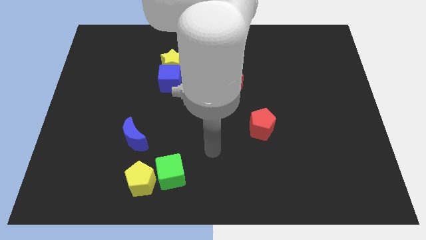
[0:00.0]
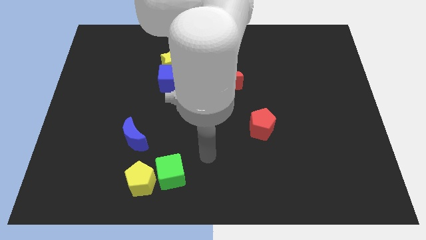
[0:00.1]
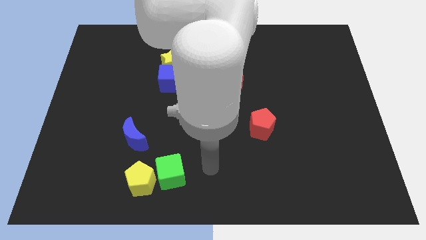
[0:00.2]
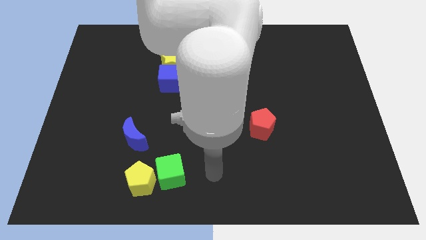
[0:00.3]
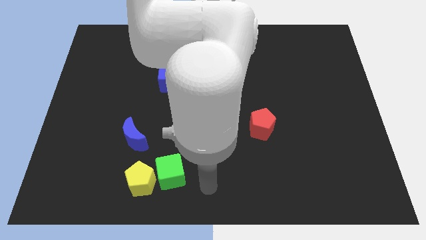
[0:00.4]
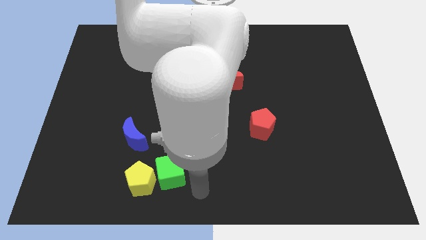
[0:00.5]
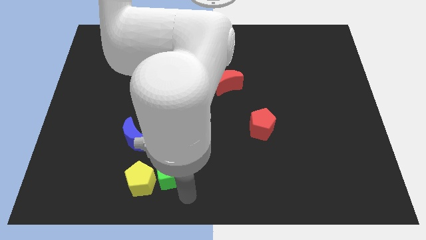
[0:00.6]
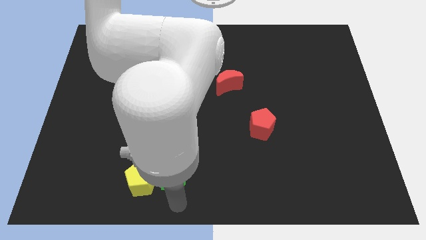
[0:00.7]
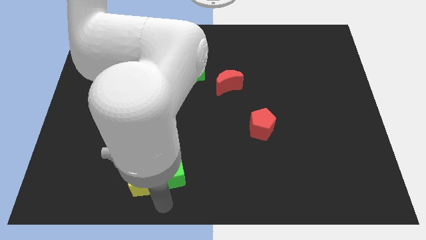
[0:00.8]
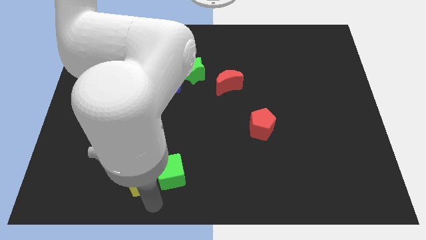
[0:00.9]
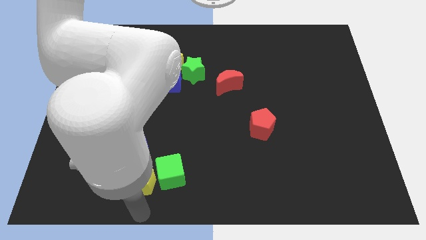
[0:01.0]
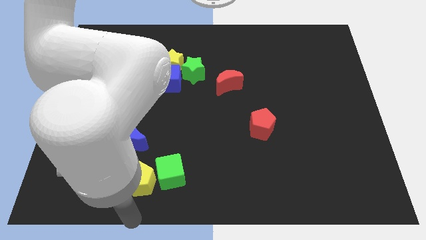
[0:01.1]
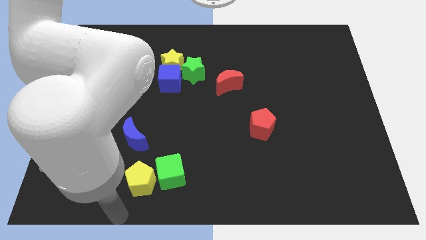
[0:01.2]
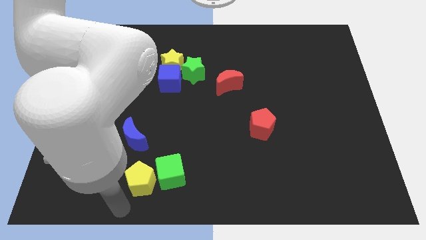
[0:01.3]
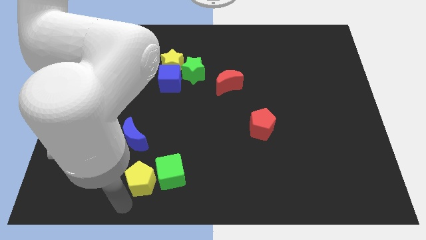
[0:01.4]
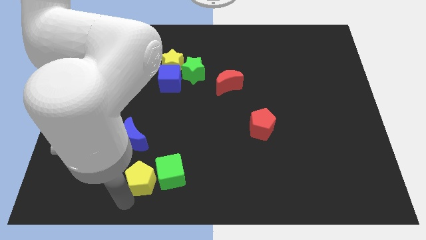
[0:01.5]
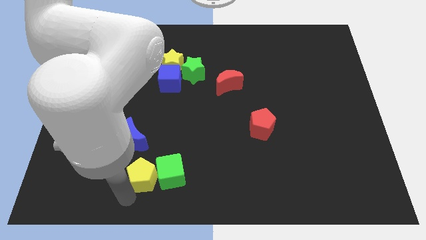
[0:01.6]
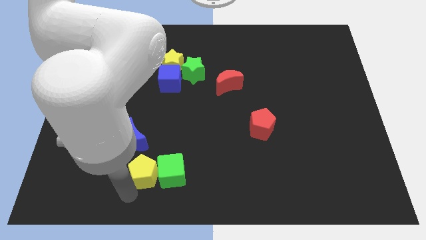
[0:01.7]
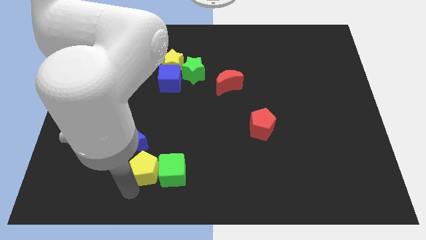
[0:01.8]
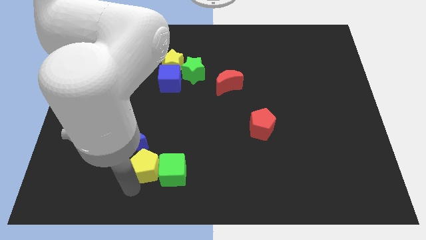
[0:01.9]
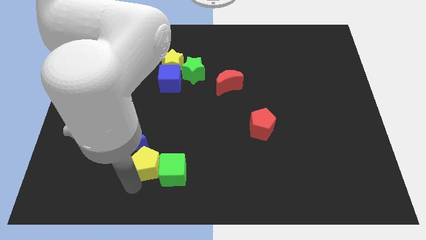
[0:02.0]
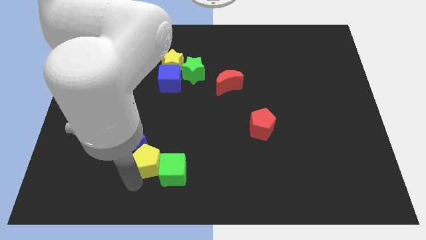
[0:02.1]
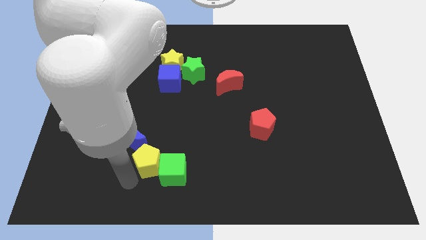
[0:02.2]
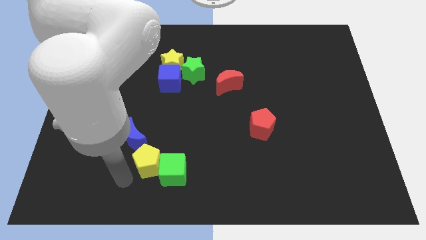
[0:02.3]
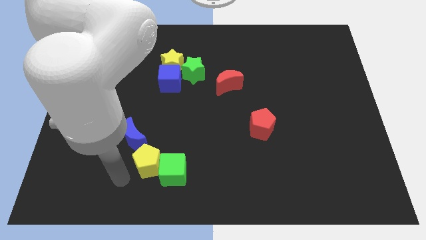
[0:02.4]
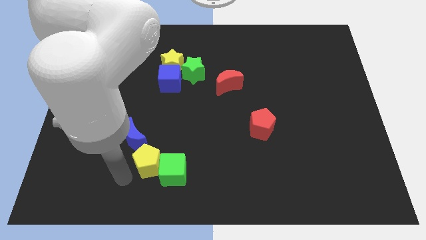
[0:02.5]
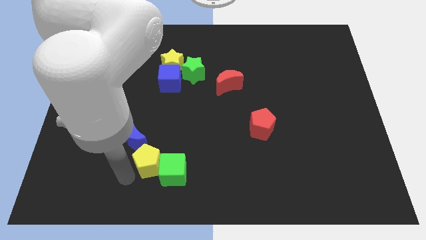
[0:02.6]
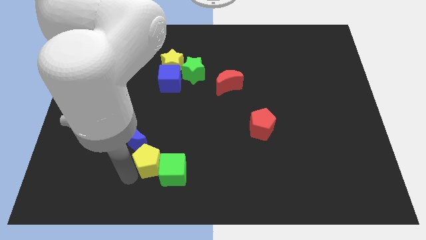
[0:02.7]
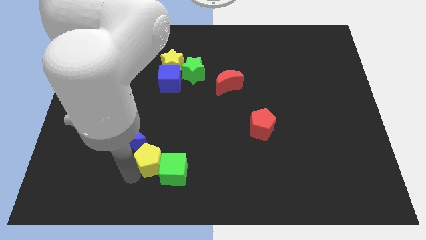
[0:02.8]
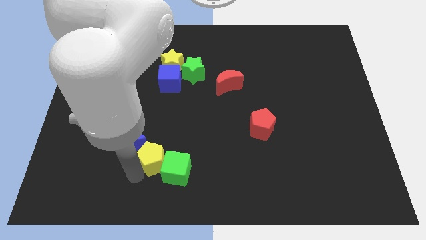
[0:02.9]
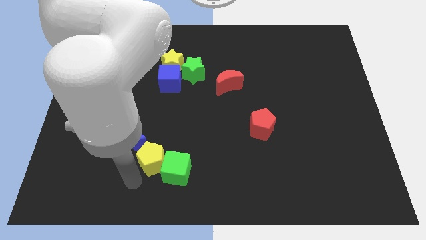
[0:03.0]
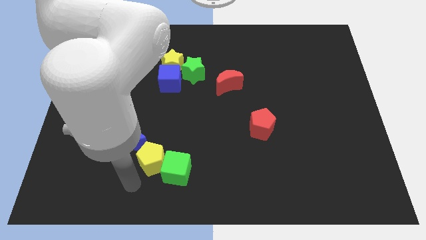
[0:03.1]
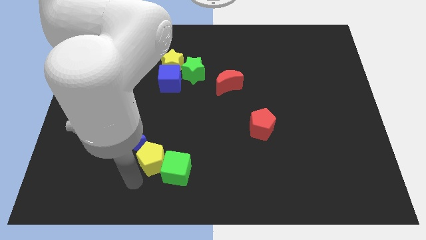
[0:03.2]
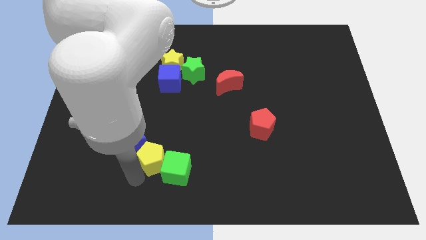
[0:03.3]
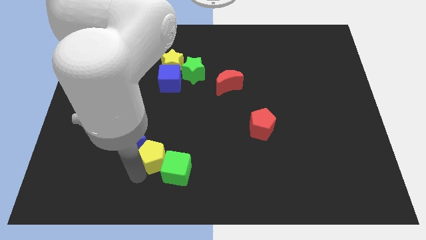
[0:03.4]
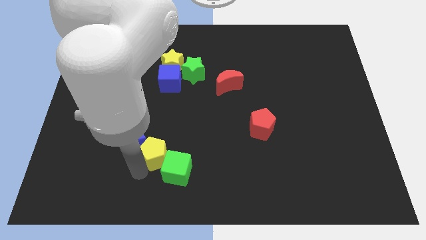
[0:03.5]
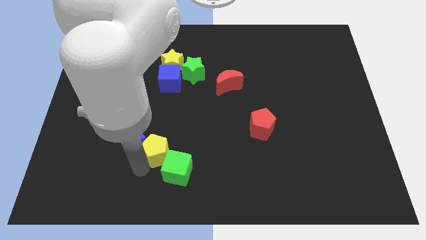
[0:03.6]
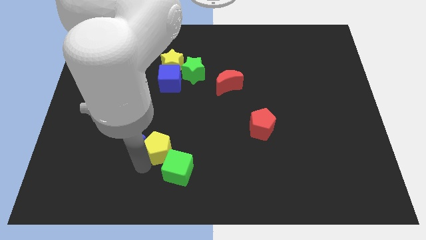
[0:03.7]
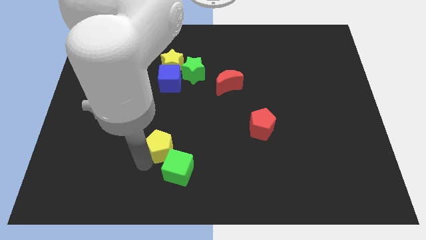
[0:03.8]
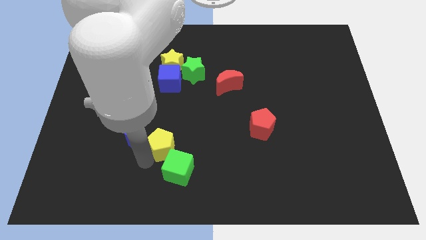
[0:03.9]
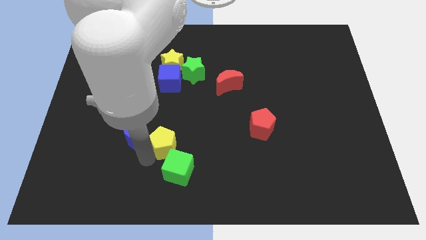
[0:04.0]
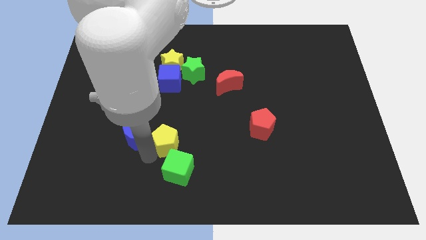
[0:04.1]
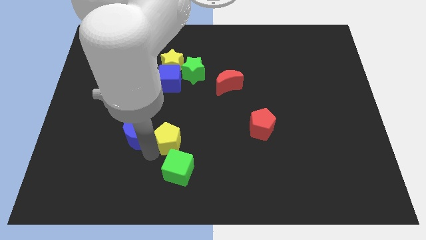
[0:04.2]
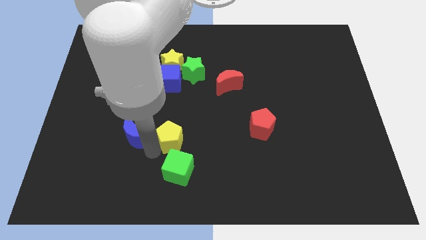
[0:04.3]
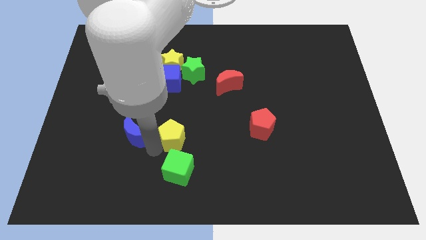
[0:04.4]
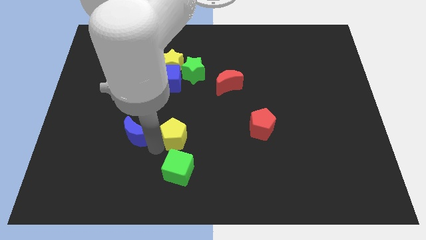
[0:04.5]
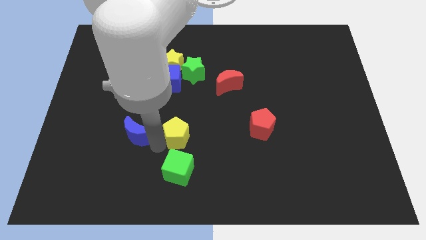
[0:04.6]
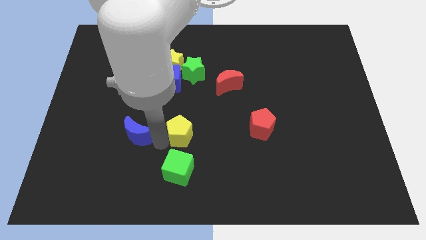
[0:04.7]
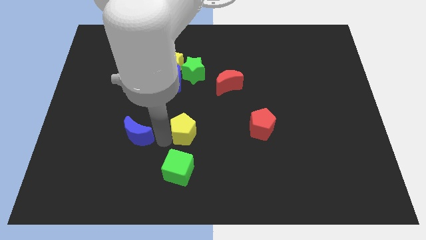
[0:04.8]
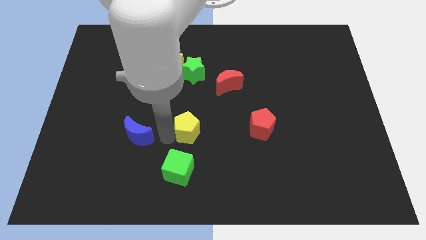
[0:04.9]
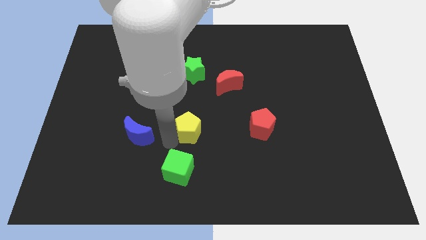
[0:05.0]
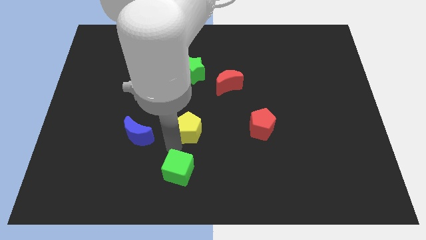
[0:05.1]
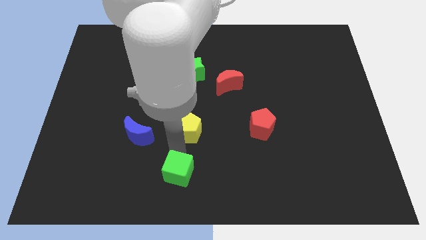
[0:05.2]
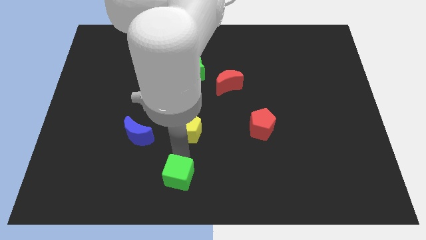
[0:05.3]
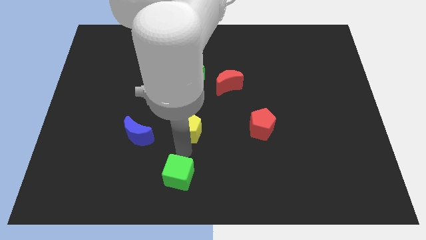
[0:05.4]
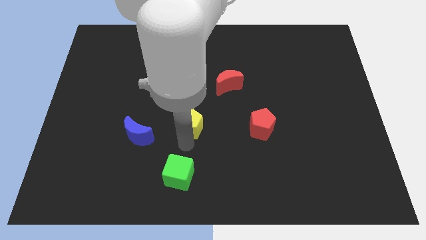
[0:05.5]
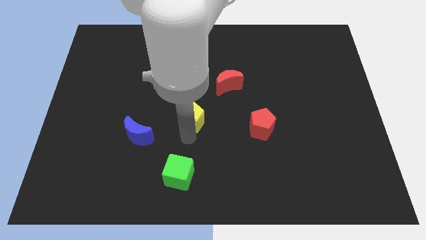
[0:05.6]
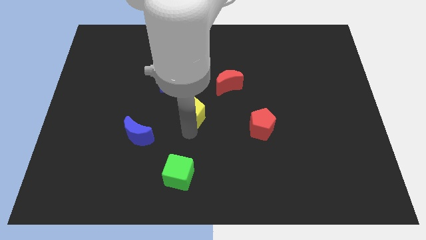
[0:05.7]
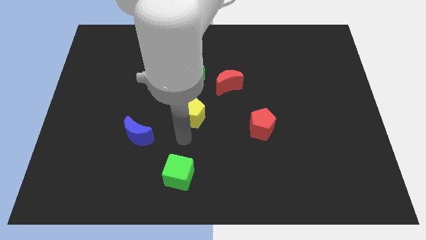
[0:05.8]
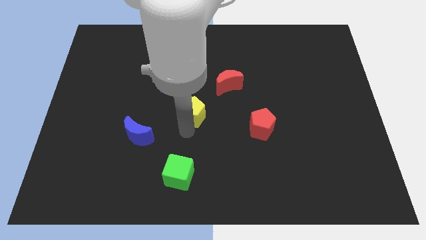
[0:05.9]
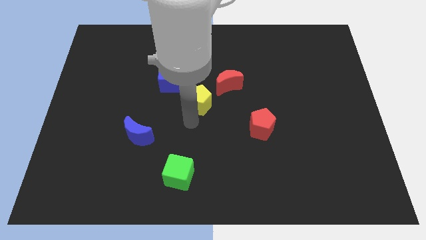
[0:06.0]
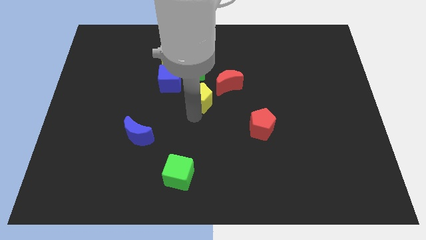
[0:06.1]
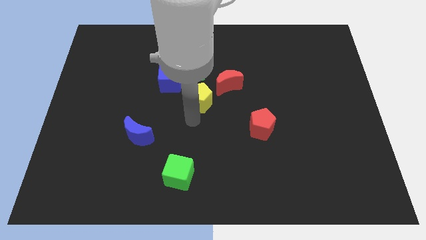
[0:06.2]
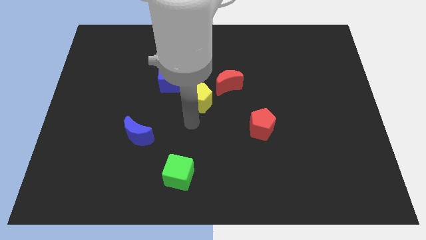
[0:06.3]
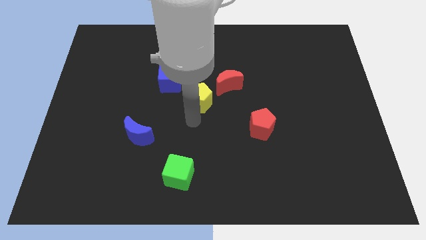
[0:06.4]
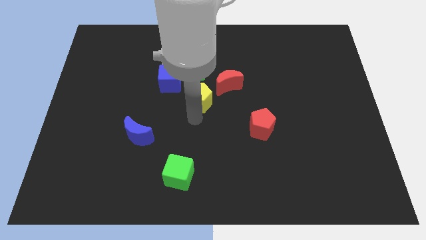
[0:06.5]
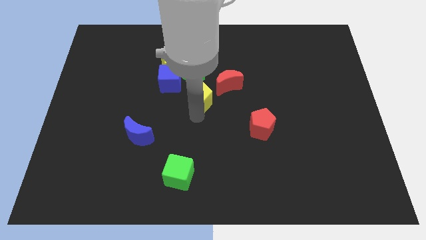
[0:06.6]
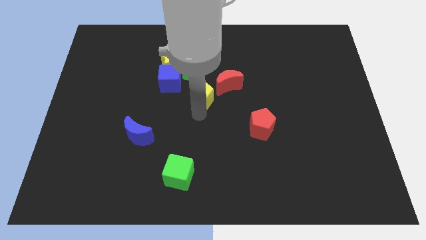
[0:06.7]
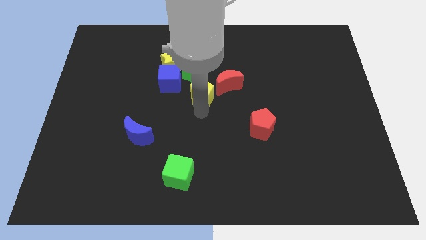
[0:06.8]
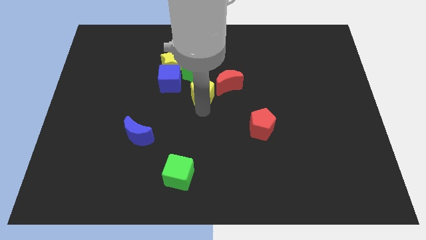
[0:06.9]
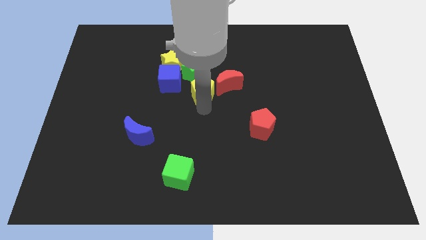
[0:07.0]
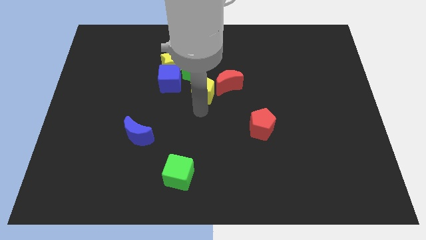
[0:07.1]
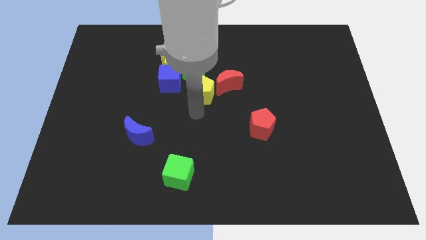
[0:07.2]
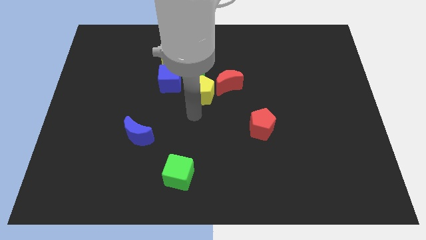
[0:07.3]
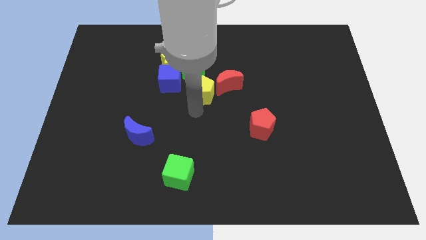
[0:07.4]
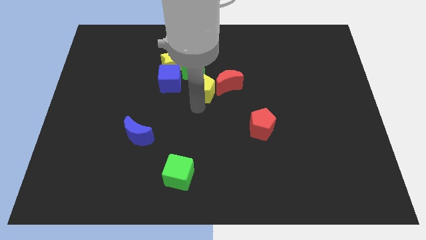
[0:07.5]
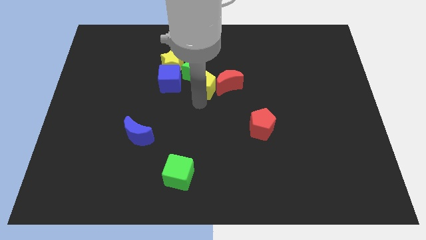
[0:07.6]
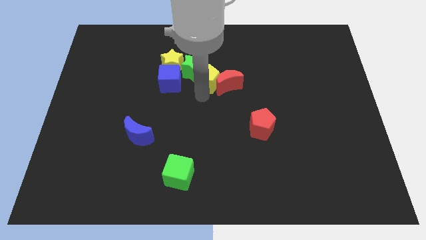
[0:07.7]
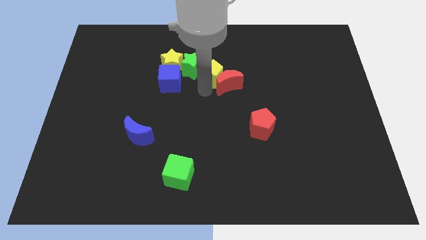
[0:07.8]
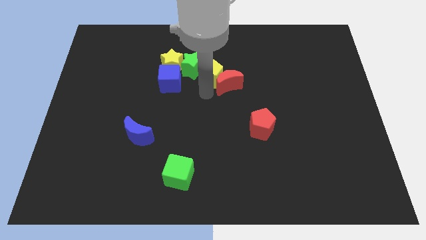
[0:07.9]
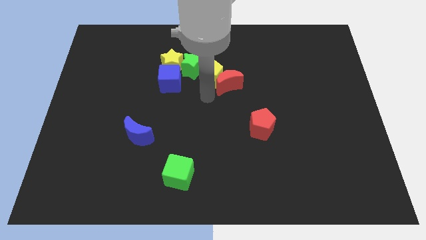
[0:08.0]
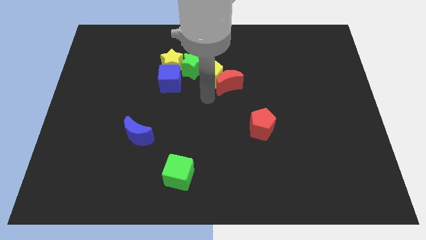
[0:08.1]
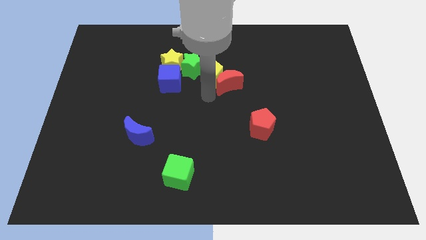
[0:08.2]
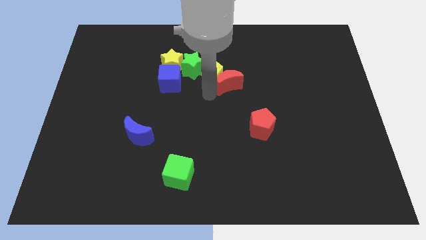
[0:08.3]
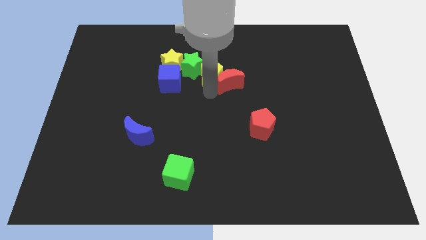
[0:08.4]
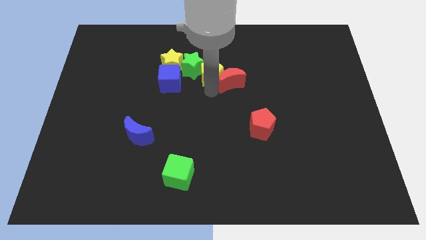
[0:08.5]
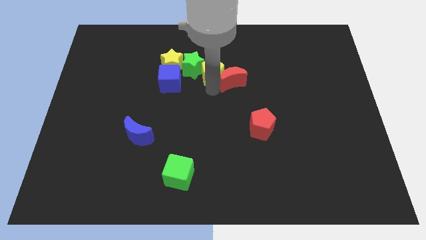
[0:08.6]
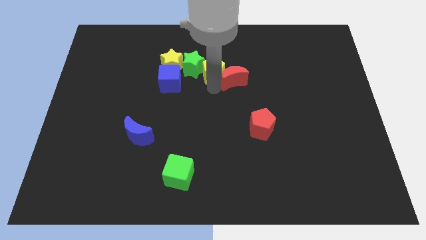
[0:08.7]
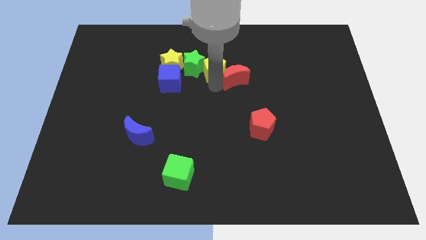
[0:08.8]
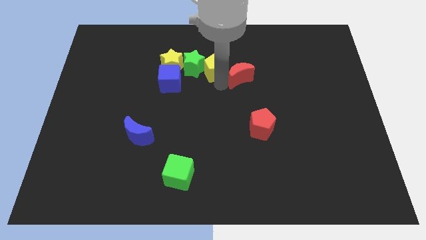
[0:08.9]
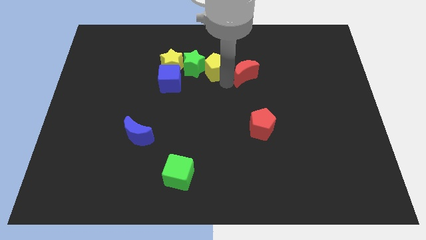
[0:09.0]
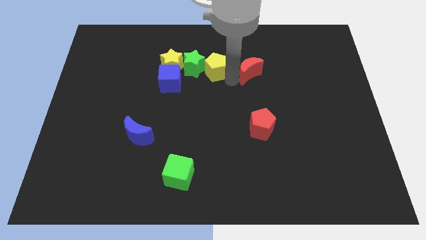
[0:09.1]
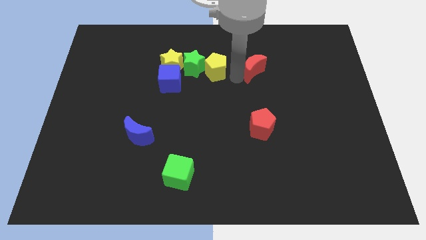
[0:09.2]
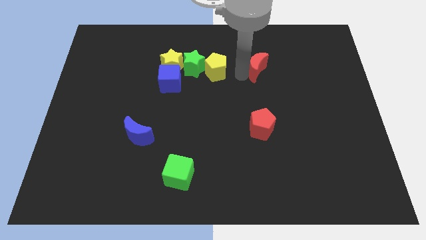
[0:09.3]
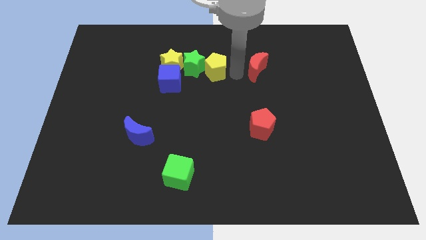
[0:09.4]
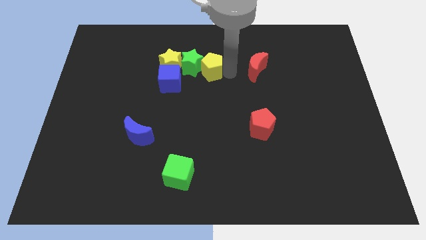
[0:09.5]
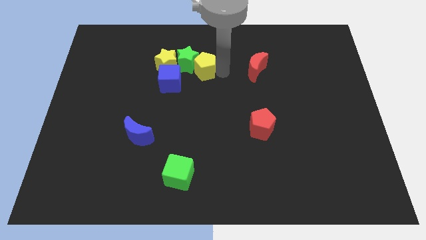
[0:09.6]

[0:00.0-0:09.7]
move the yellow pentagon to the top right of the blue cube
